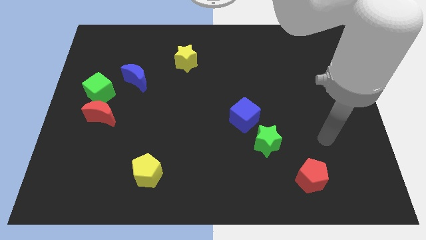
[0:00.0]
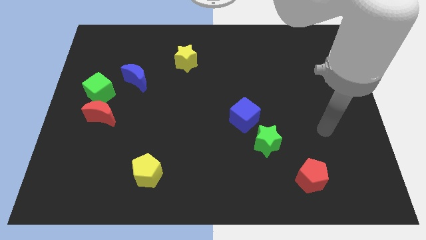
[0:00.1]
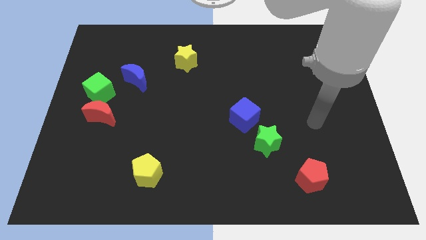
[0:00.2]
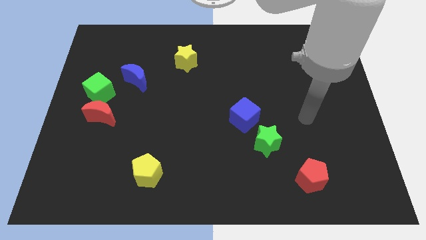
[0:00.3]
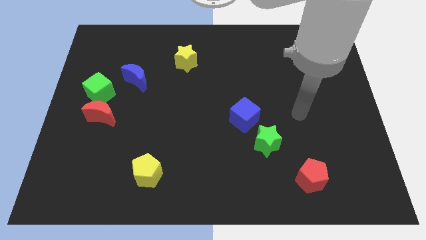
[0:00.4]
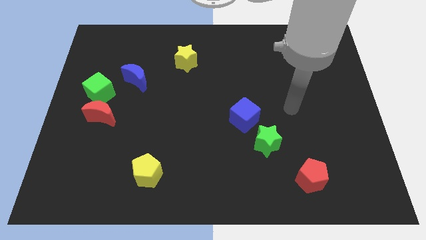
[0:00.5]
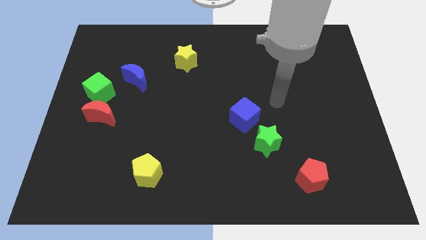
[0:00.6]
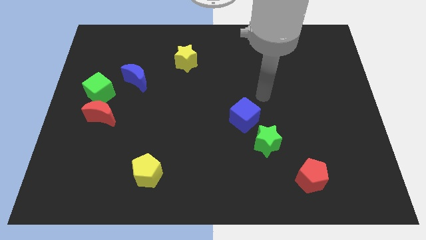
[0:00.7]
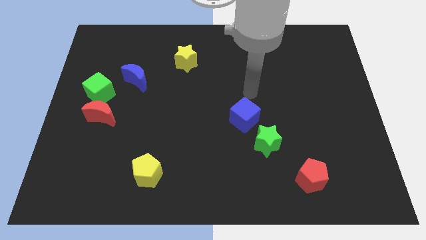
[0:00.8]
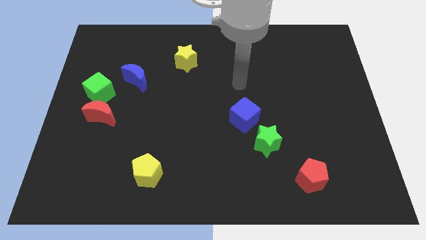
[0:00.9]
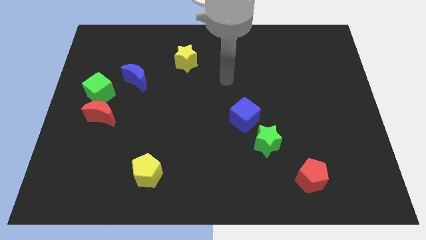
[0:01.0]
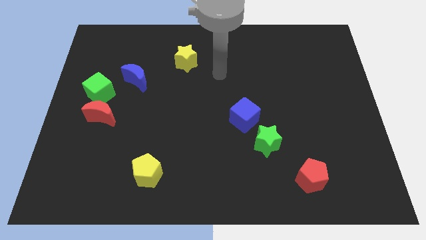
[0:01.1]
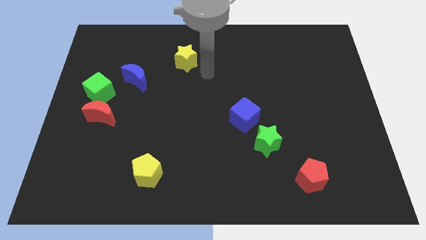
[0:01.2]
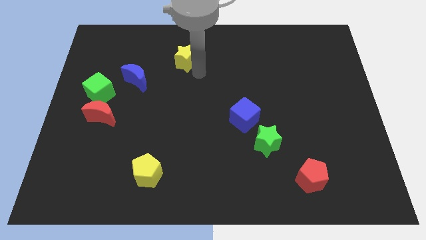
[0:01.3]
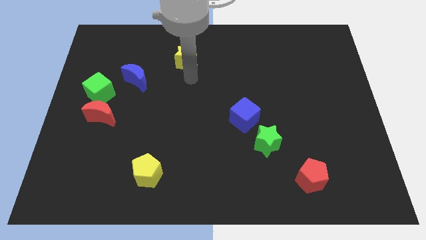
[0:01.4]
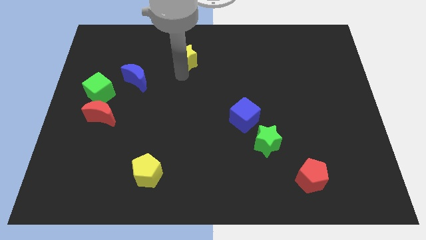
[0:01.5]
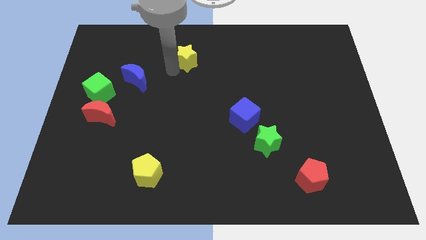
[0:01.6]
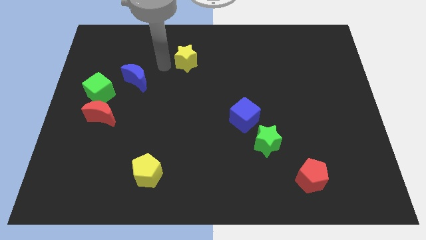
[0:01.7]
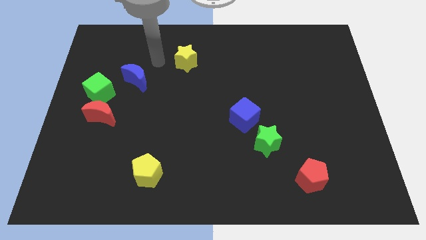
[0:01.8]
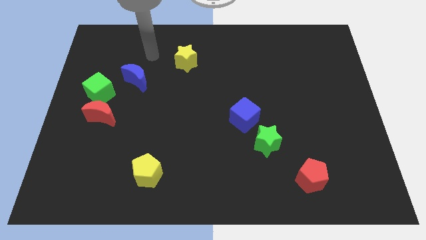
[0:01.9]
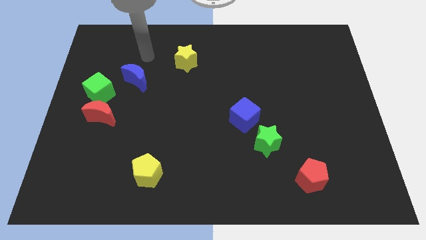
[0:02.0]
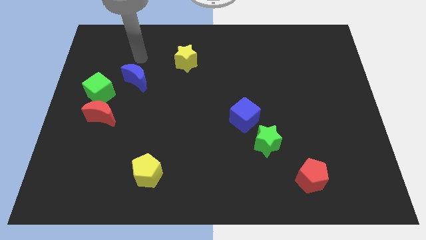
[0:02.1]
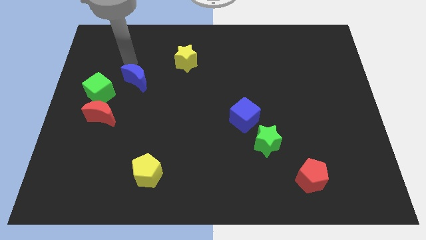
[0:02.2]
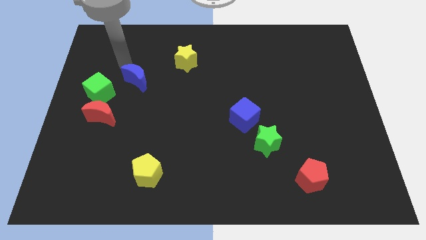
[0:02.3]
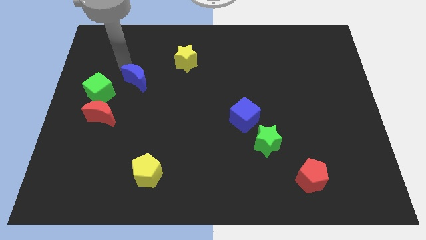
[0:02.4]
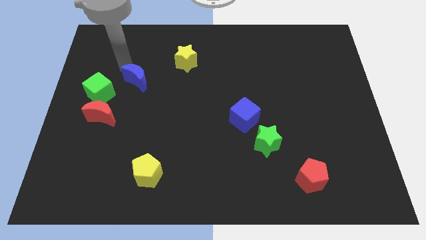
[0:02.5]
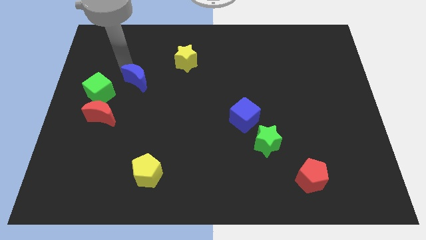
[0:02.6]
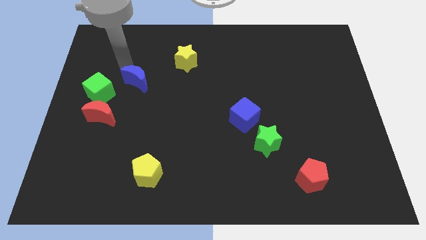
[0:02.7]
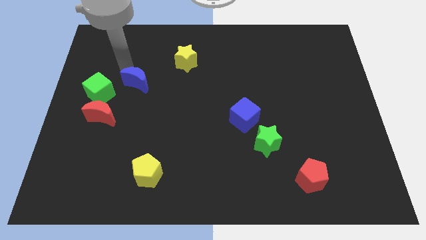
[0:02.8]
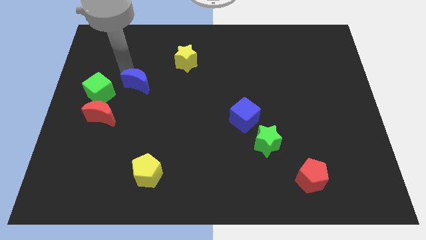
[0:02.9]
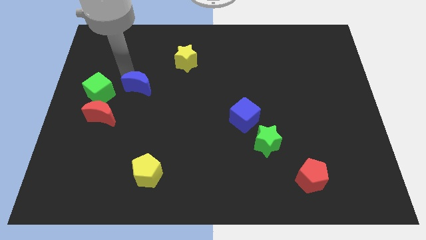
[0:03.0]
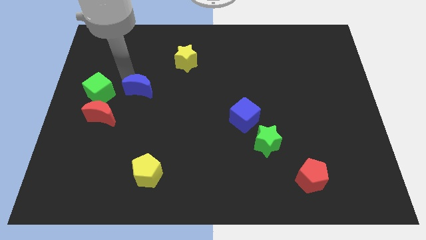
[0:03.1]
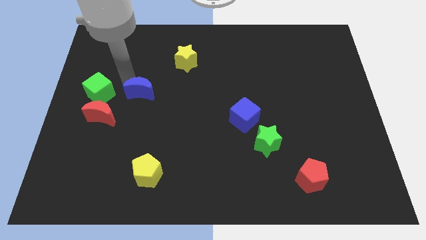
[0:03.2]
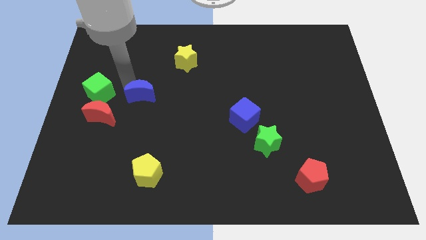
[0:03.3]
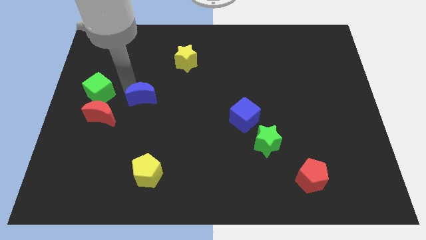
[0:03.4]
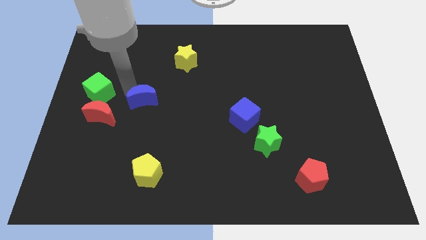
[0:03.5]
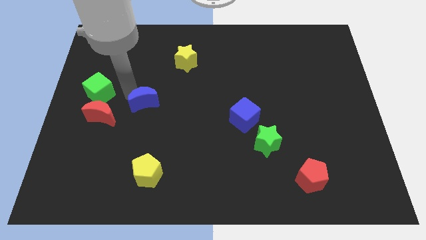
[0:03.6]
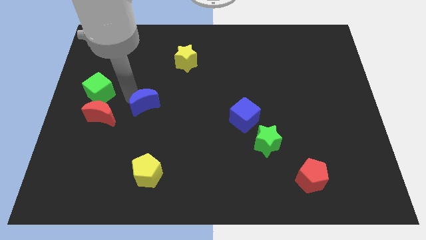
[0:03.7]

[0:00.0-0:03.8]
slightly push the blue moon downwards and to the right diagonally

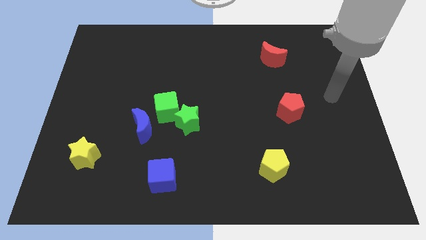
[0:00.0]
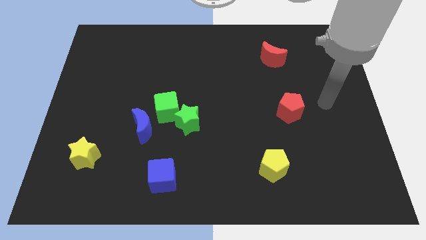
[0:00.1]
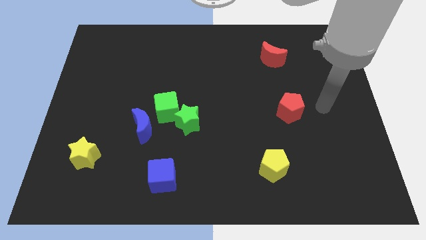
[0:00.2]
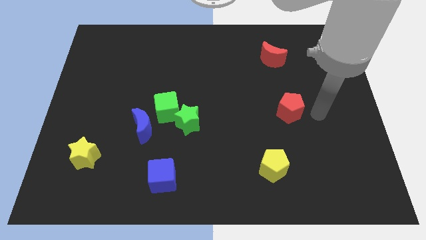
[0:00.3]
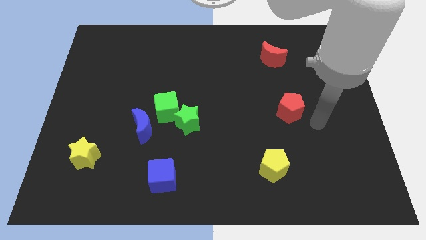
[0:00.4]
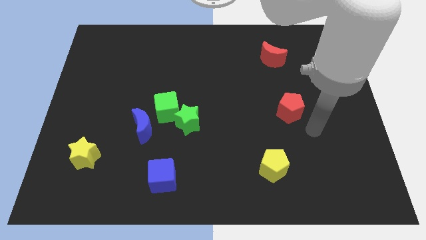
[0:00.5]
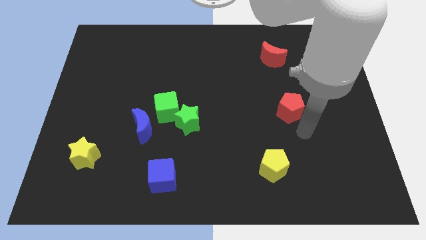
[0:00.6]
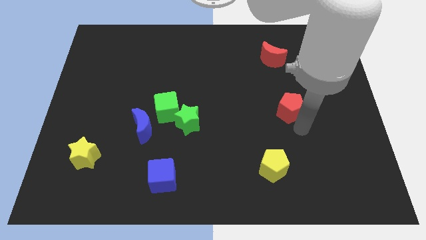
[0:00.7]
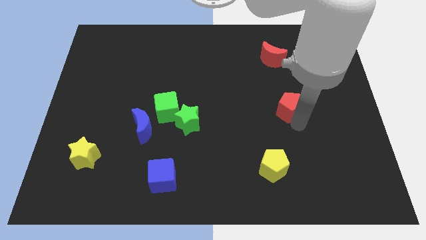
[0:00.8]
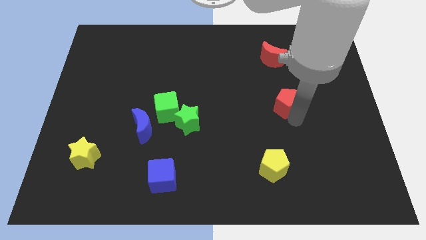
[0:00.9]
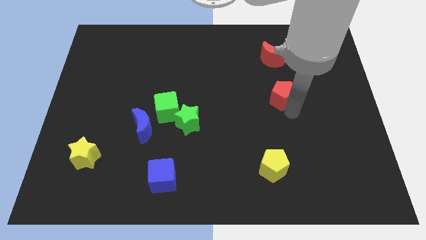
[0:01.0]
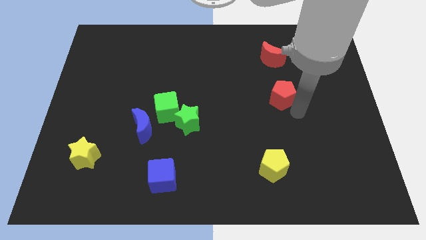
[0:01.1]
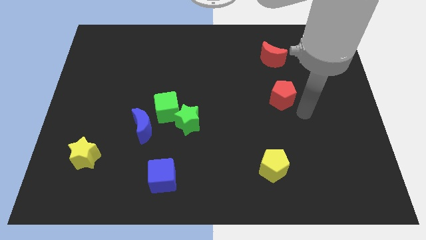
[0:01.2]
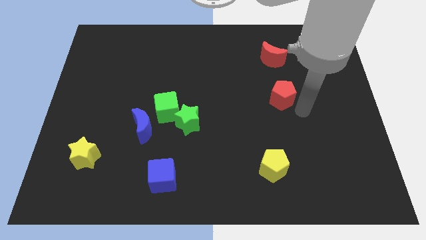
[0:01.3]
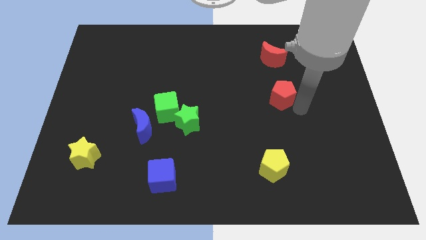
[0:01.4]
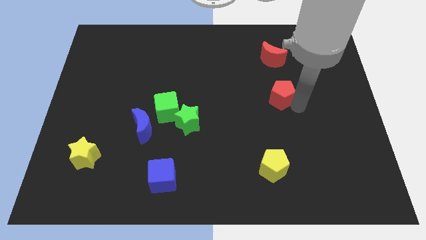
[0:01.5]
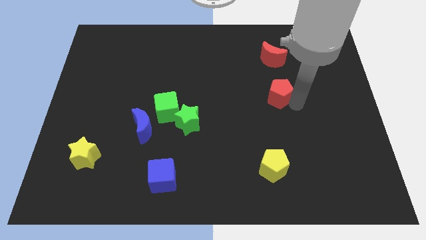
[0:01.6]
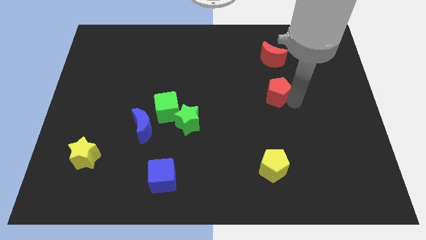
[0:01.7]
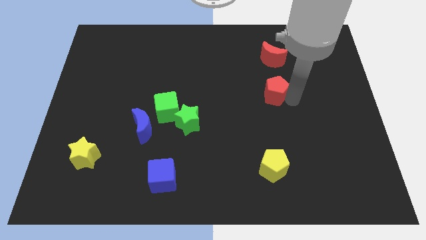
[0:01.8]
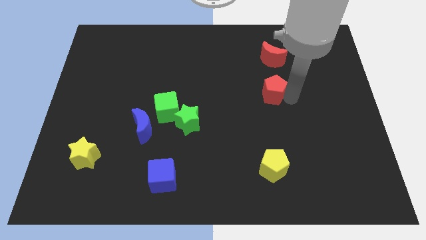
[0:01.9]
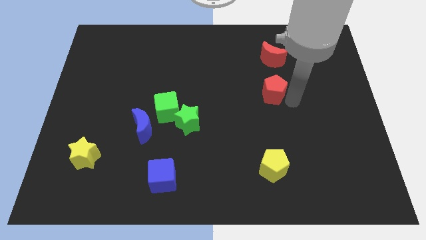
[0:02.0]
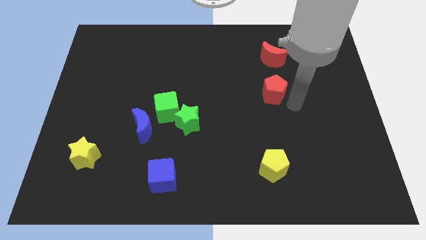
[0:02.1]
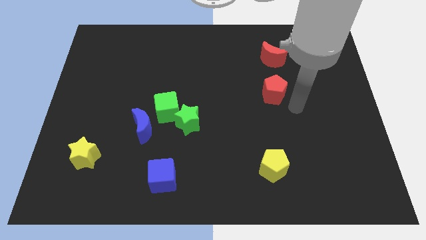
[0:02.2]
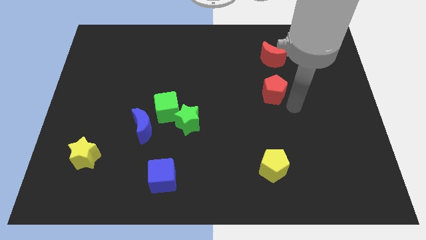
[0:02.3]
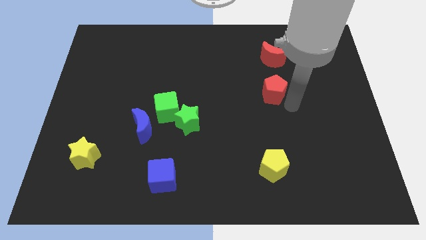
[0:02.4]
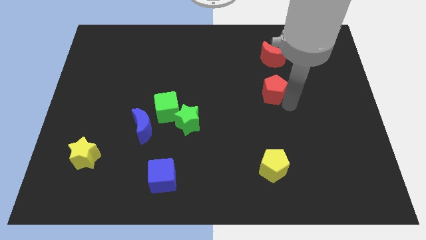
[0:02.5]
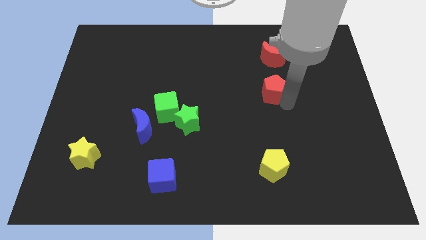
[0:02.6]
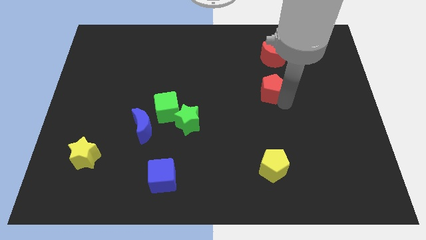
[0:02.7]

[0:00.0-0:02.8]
slightly slide the red pentagon diagonally up and left

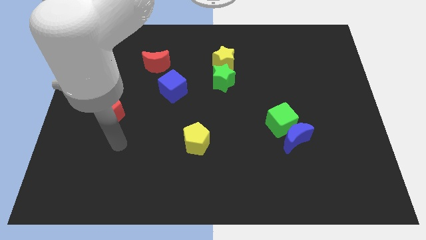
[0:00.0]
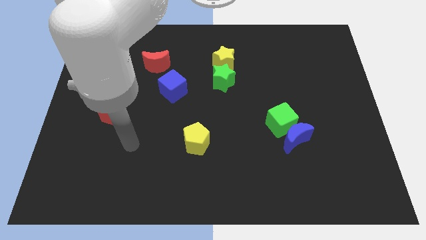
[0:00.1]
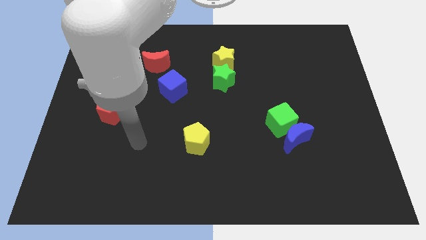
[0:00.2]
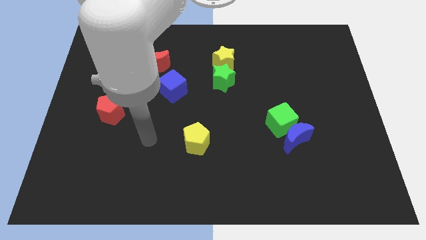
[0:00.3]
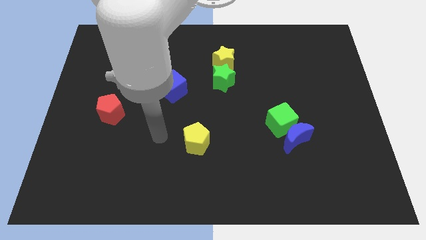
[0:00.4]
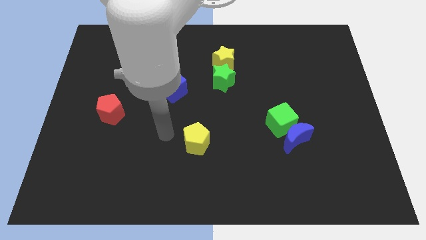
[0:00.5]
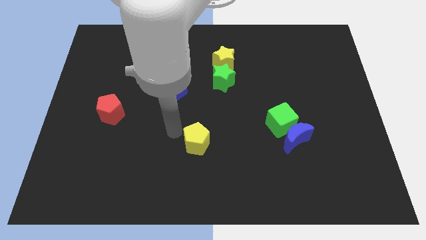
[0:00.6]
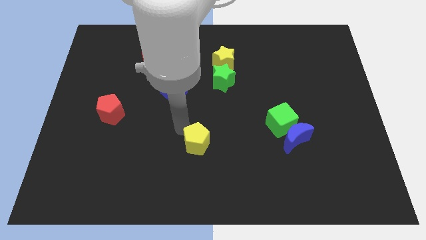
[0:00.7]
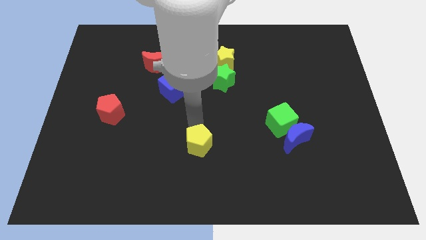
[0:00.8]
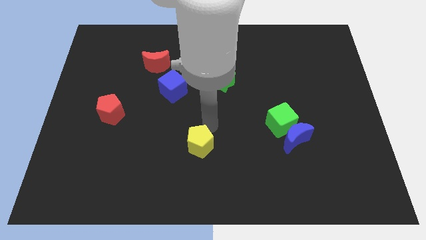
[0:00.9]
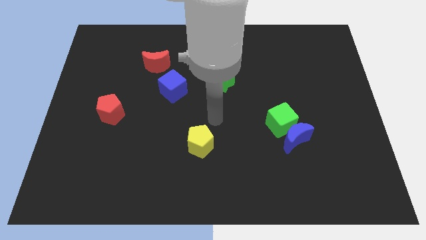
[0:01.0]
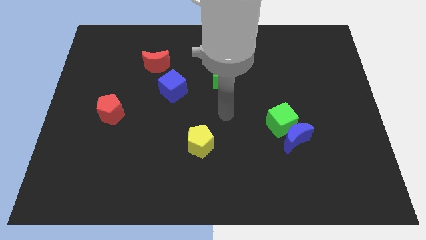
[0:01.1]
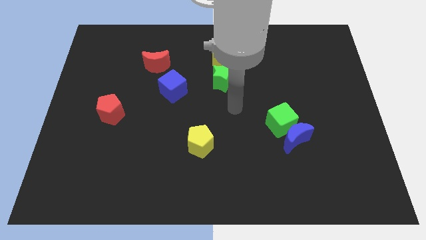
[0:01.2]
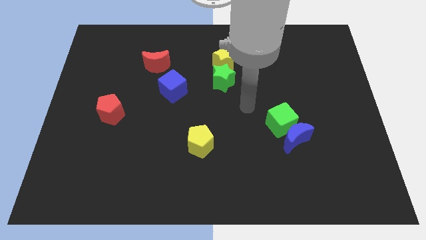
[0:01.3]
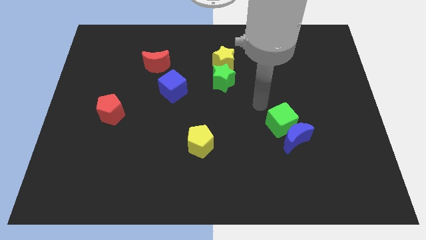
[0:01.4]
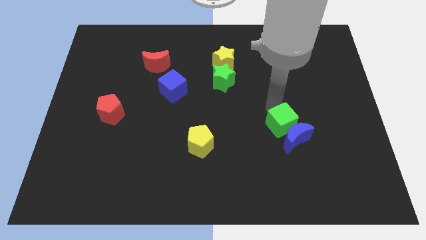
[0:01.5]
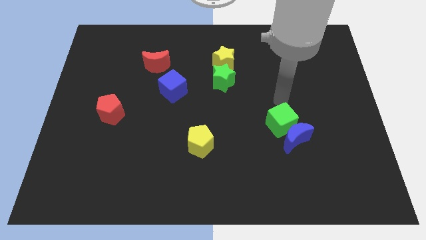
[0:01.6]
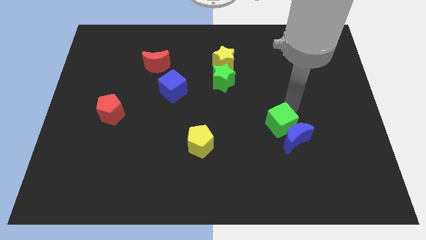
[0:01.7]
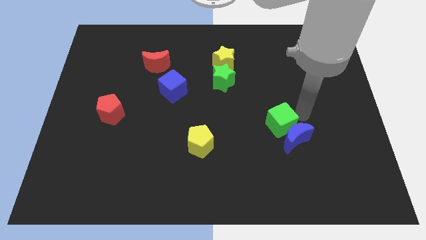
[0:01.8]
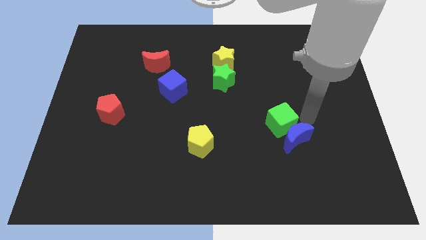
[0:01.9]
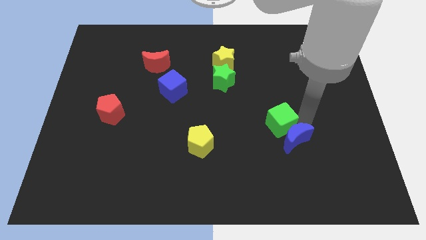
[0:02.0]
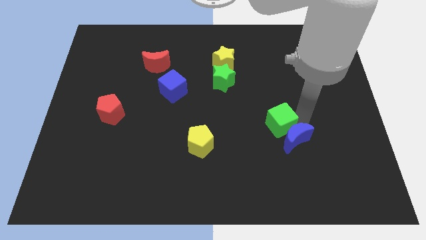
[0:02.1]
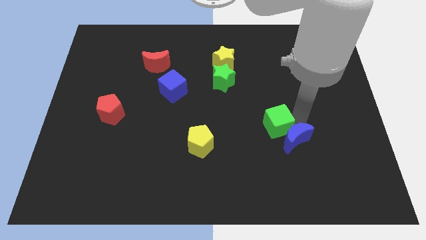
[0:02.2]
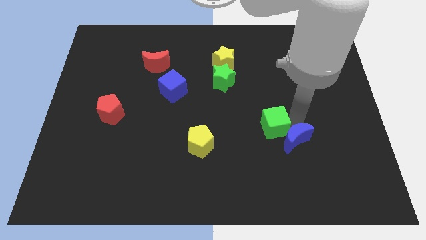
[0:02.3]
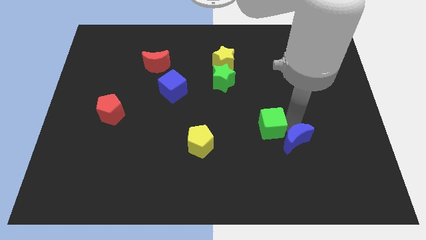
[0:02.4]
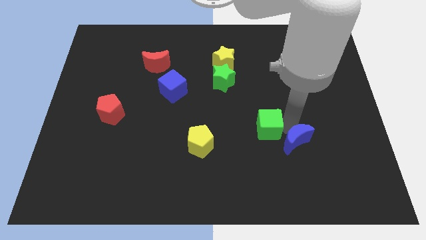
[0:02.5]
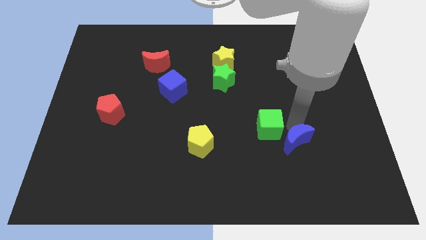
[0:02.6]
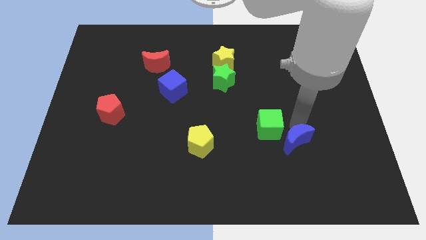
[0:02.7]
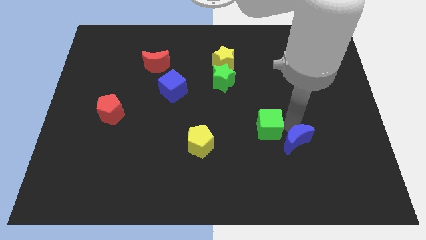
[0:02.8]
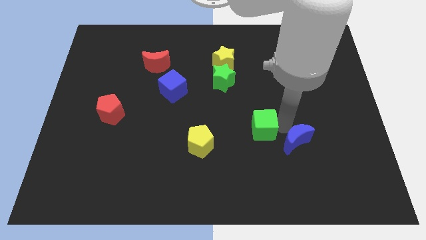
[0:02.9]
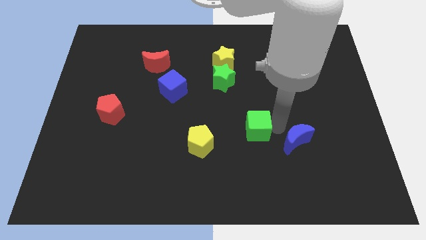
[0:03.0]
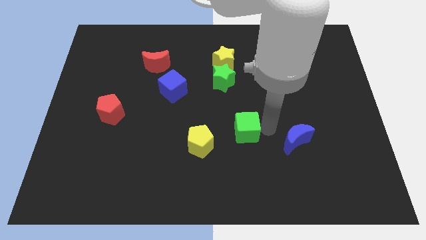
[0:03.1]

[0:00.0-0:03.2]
move the green cube somewhat to the left
